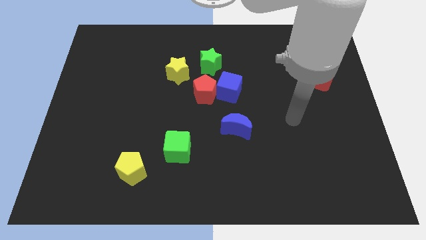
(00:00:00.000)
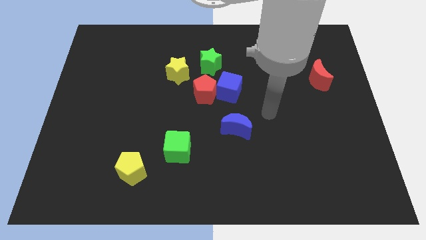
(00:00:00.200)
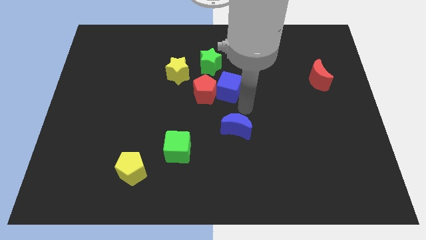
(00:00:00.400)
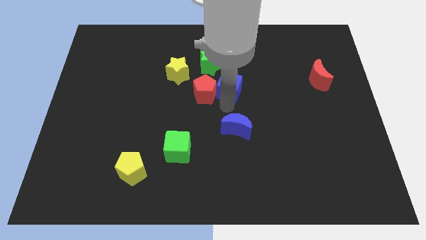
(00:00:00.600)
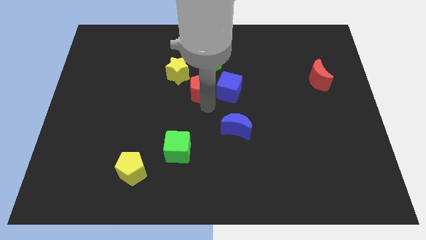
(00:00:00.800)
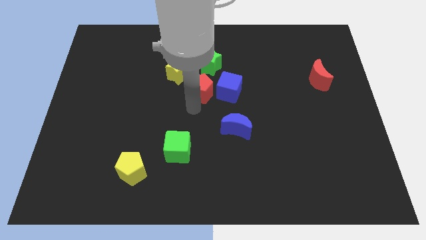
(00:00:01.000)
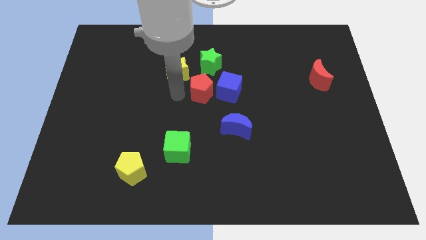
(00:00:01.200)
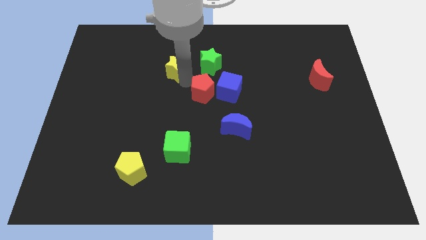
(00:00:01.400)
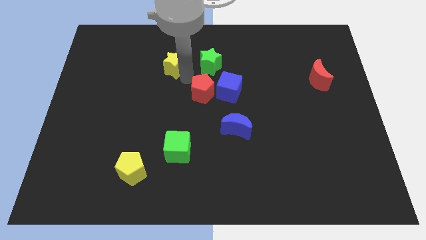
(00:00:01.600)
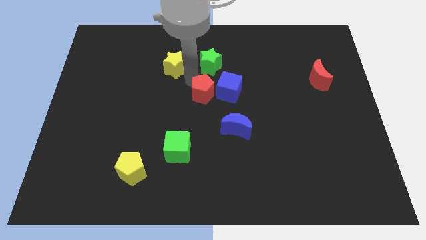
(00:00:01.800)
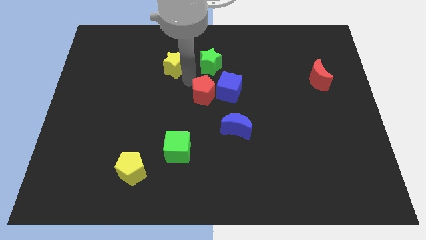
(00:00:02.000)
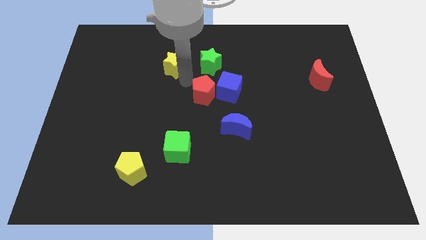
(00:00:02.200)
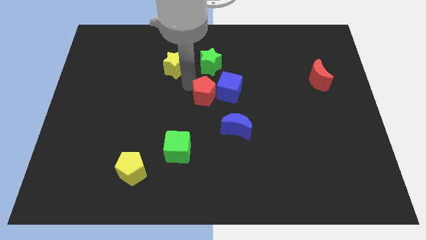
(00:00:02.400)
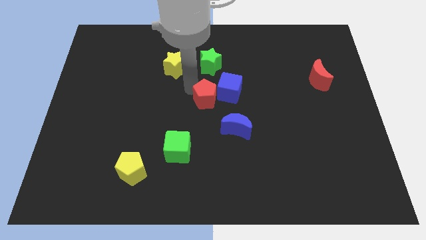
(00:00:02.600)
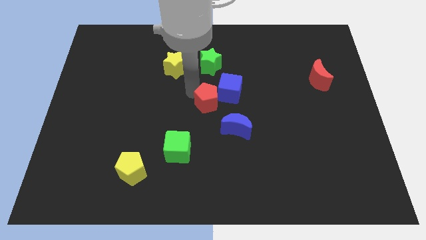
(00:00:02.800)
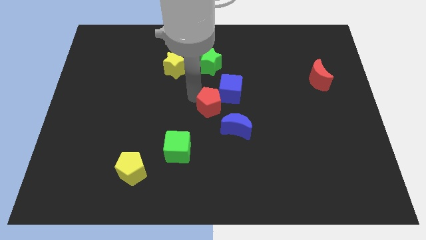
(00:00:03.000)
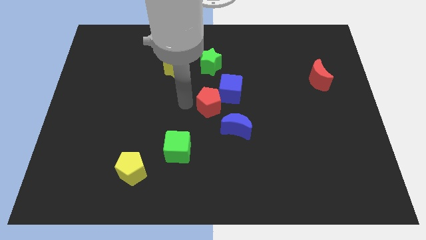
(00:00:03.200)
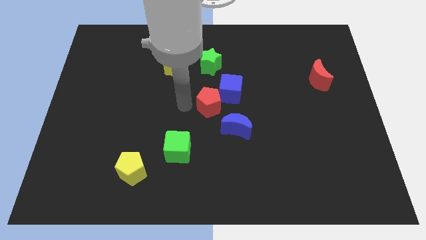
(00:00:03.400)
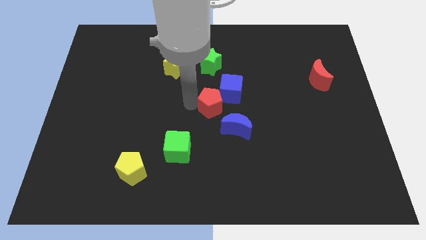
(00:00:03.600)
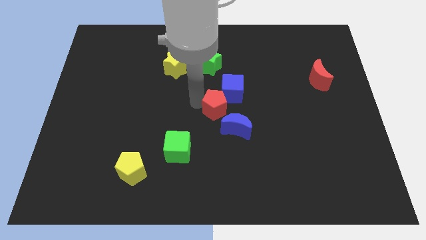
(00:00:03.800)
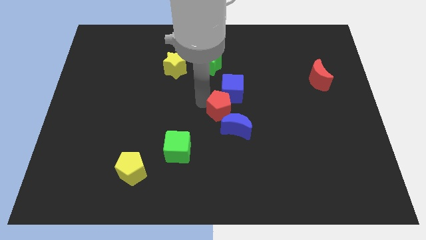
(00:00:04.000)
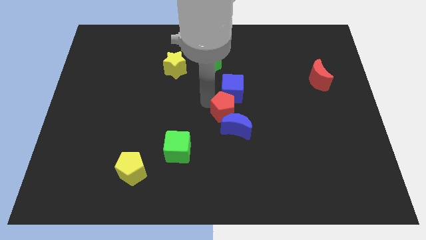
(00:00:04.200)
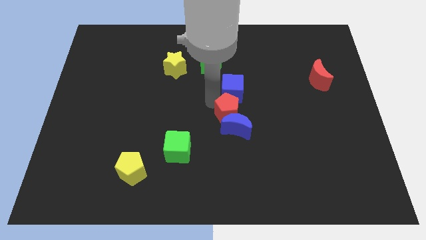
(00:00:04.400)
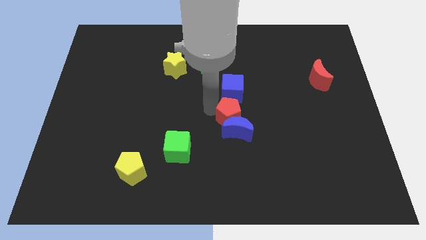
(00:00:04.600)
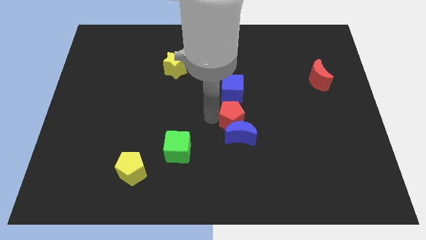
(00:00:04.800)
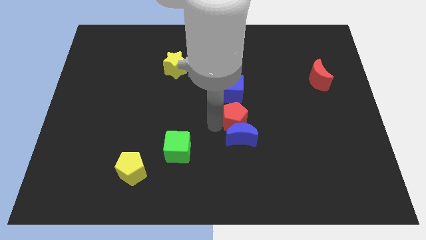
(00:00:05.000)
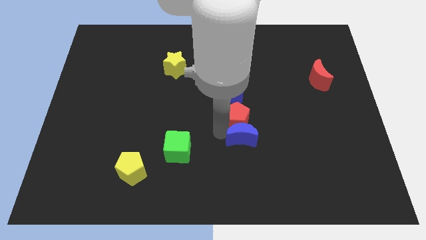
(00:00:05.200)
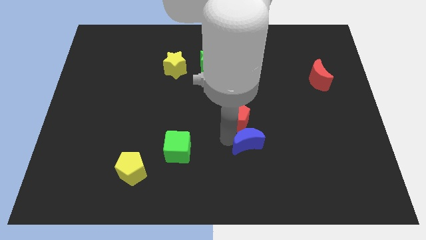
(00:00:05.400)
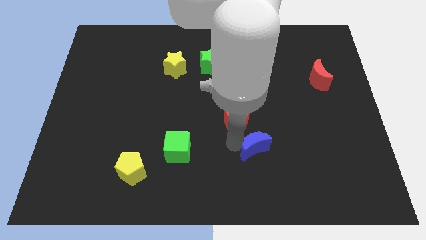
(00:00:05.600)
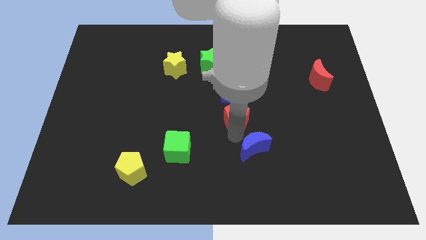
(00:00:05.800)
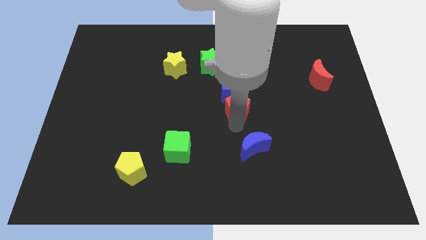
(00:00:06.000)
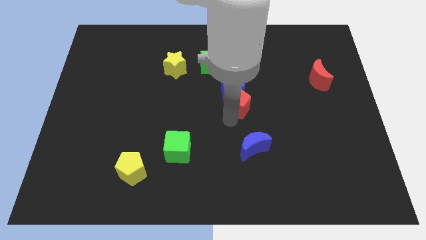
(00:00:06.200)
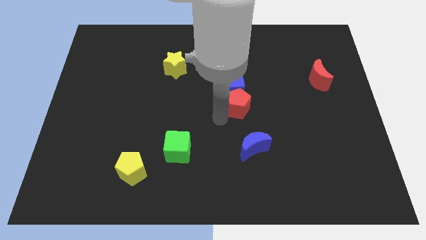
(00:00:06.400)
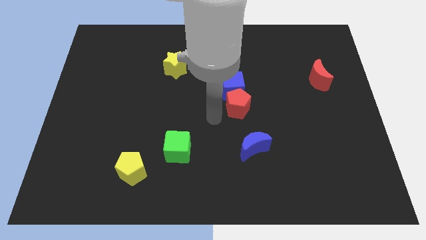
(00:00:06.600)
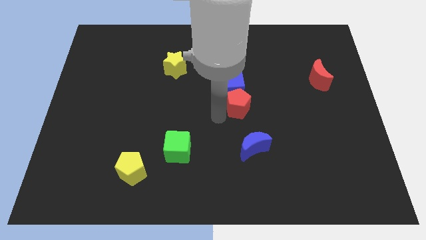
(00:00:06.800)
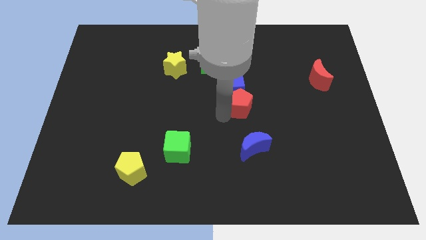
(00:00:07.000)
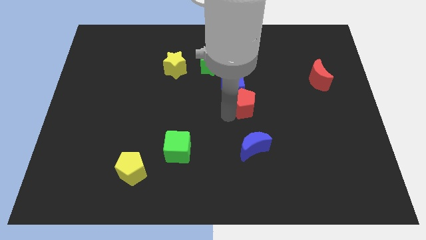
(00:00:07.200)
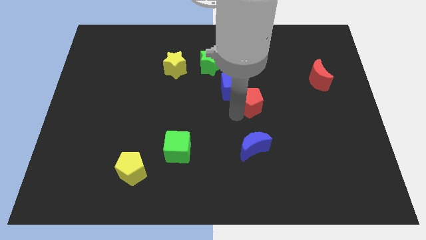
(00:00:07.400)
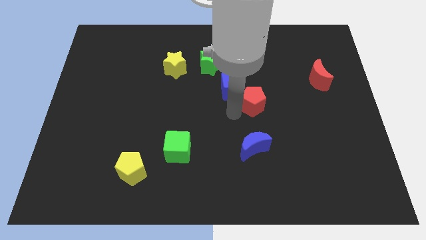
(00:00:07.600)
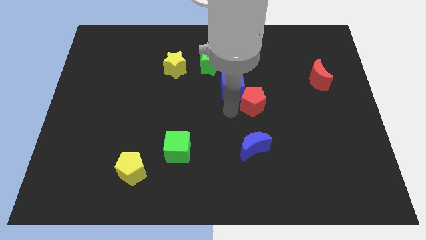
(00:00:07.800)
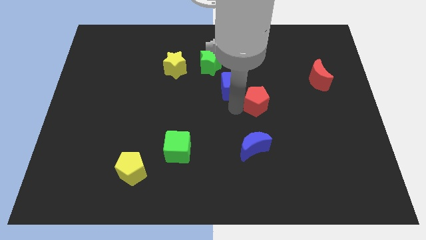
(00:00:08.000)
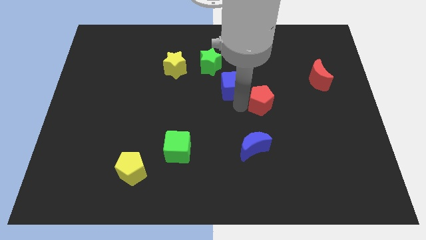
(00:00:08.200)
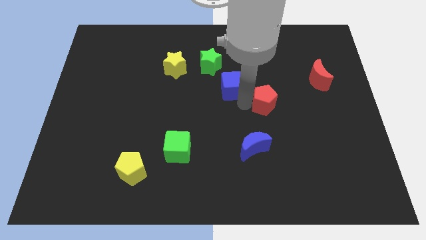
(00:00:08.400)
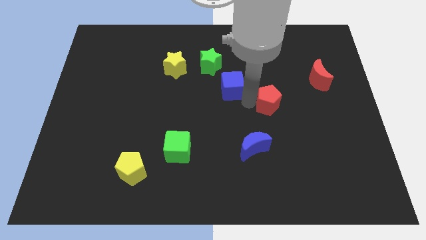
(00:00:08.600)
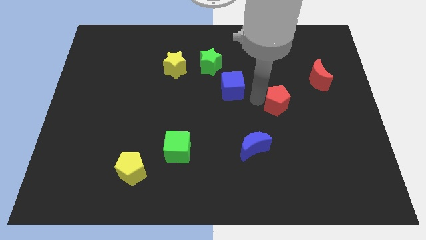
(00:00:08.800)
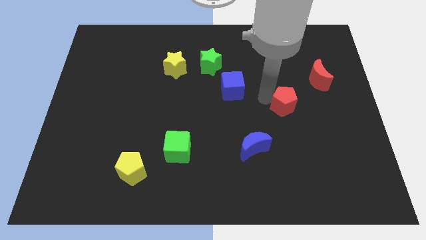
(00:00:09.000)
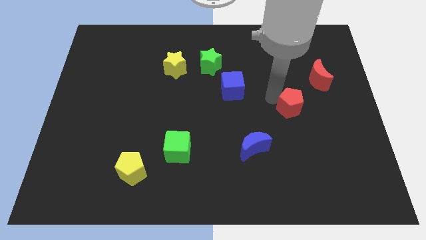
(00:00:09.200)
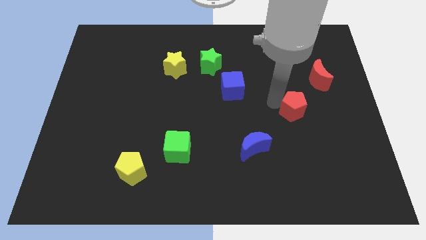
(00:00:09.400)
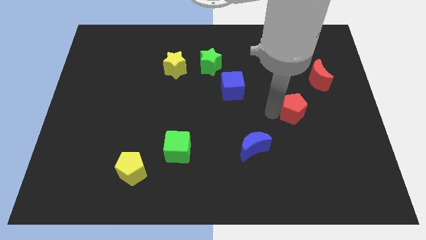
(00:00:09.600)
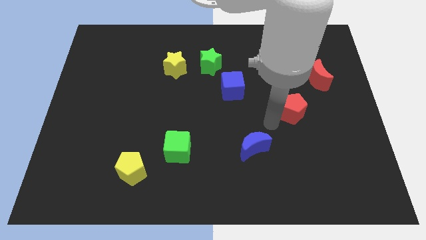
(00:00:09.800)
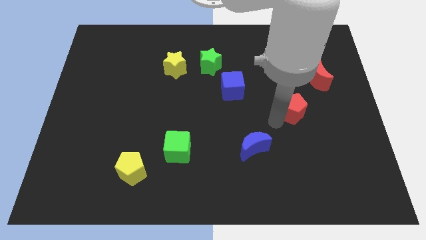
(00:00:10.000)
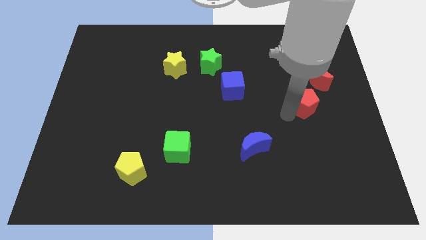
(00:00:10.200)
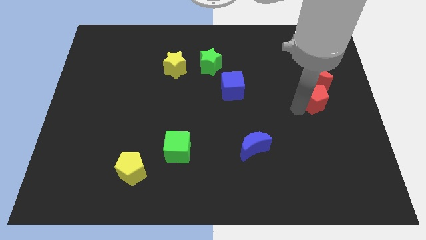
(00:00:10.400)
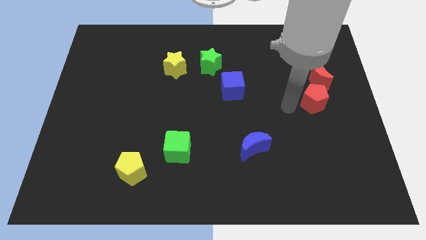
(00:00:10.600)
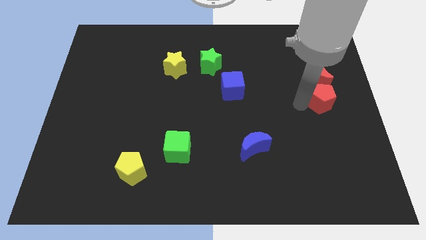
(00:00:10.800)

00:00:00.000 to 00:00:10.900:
push the red pentagon to the right side of the board

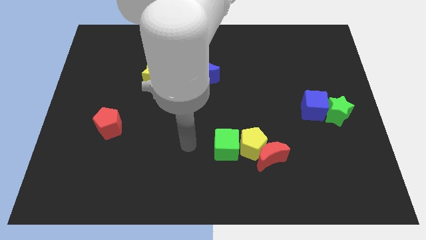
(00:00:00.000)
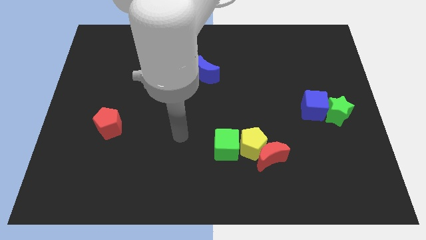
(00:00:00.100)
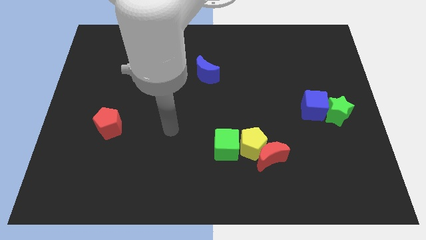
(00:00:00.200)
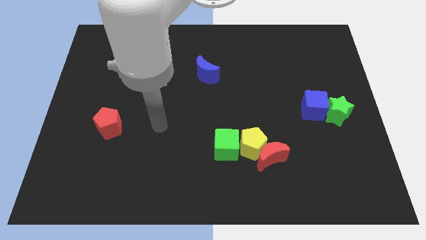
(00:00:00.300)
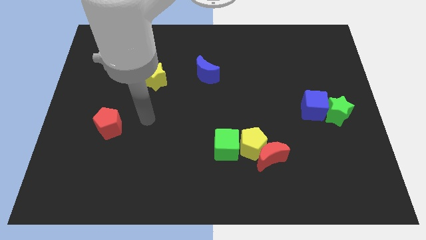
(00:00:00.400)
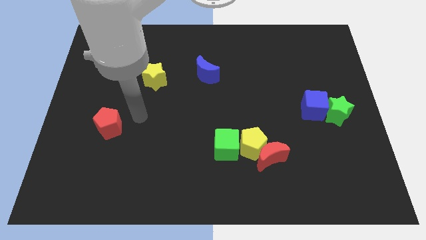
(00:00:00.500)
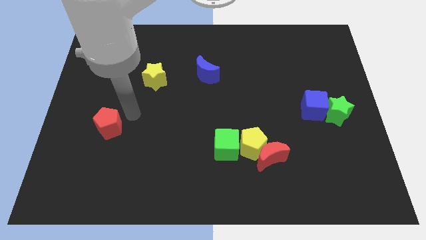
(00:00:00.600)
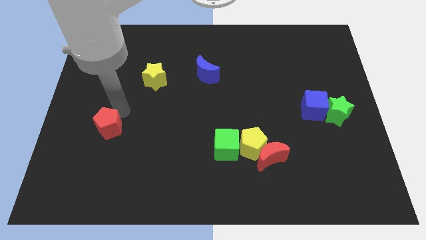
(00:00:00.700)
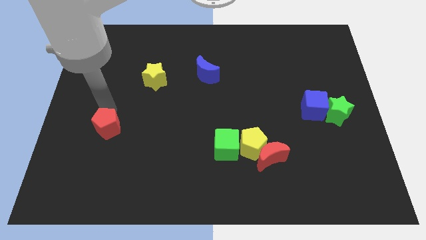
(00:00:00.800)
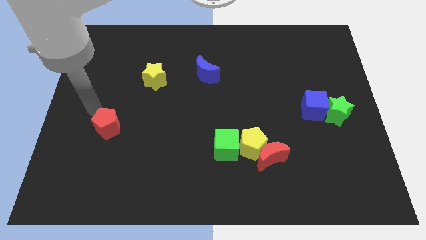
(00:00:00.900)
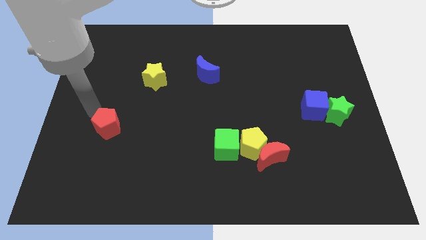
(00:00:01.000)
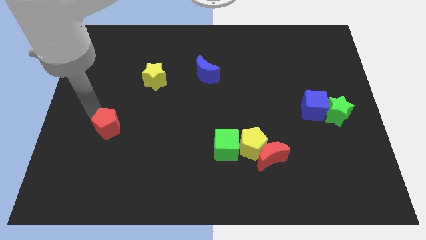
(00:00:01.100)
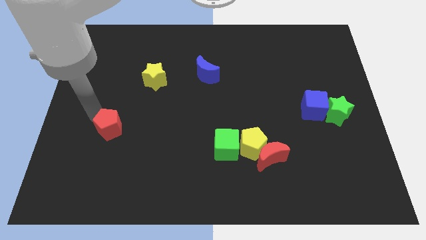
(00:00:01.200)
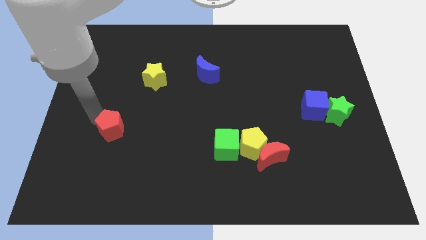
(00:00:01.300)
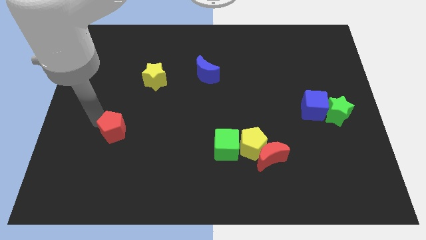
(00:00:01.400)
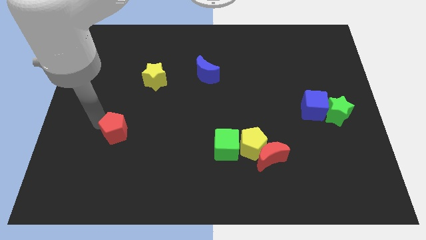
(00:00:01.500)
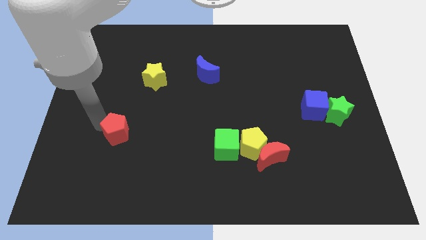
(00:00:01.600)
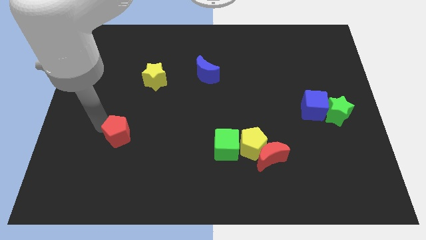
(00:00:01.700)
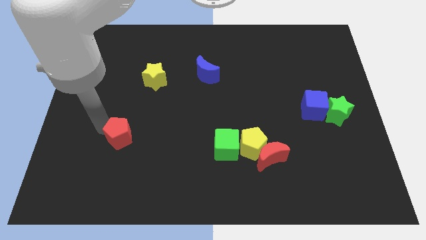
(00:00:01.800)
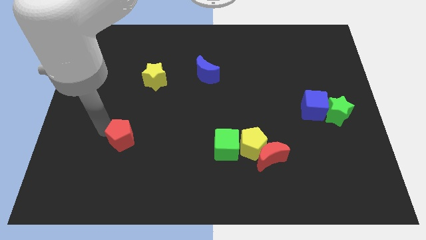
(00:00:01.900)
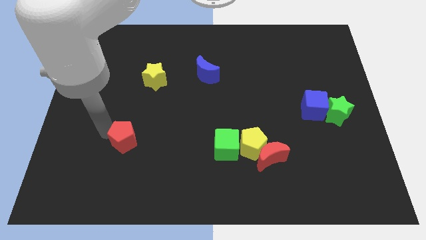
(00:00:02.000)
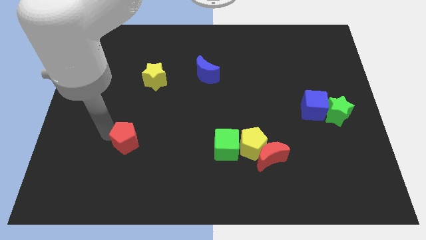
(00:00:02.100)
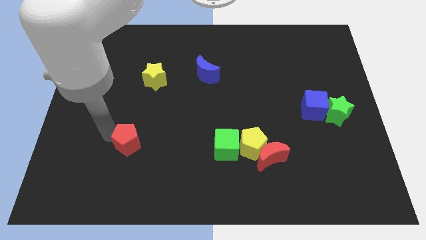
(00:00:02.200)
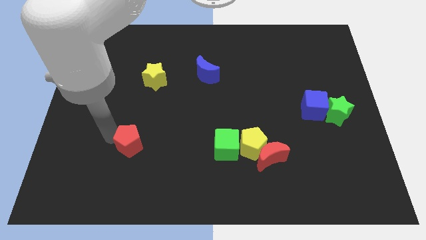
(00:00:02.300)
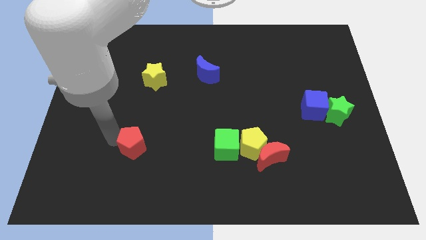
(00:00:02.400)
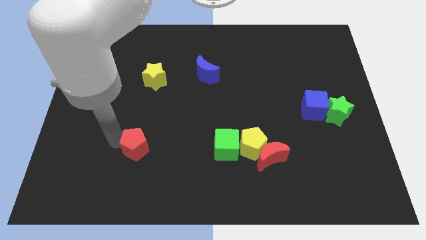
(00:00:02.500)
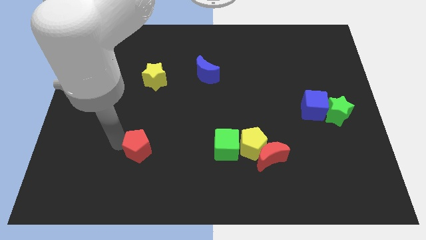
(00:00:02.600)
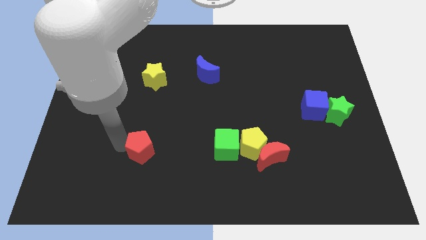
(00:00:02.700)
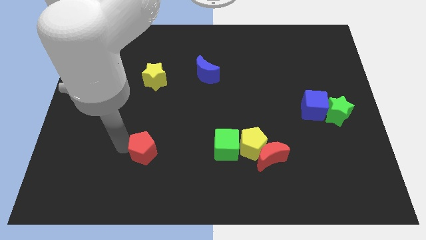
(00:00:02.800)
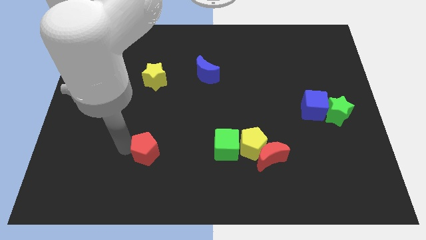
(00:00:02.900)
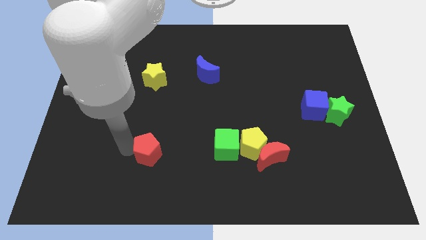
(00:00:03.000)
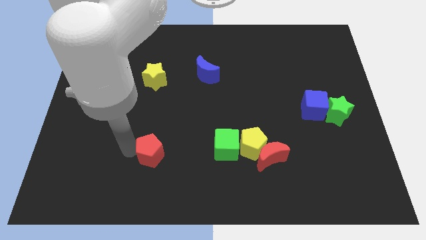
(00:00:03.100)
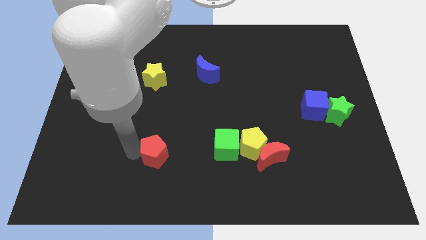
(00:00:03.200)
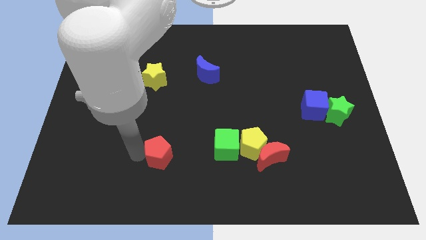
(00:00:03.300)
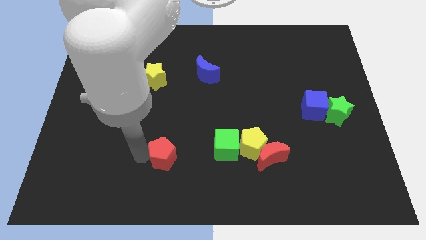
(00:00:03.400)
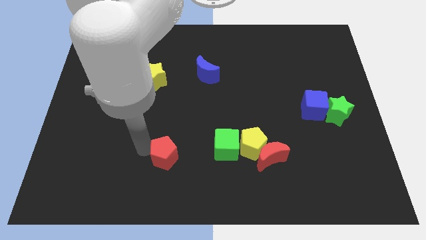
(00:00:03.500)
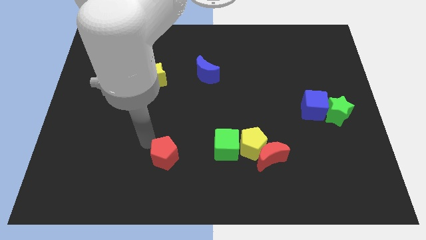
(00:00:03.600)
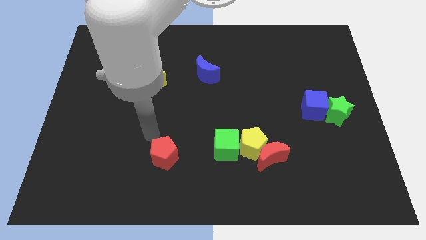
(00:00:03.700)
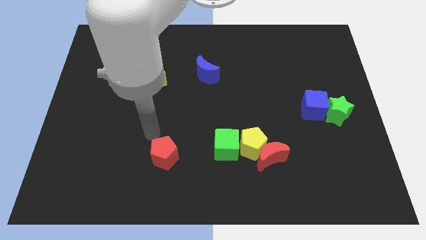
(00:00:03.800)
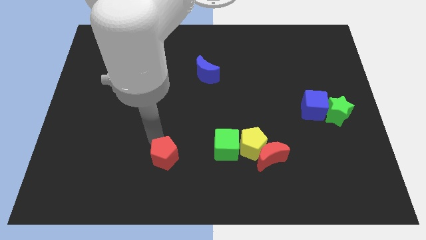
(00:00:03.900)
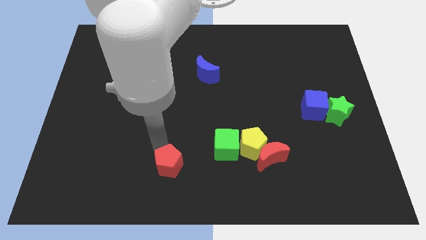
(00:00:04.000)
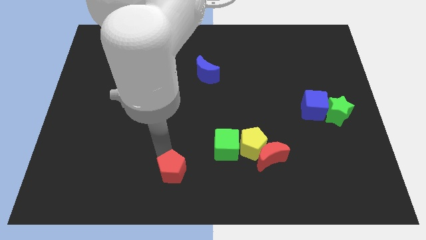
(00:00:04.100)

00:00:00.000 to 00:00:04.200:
push the red pentagon to the bottom
